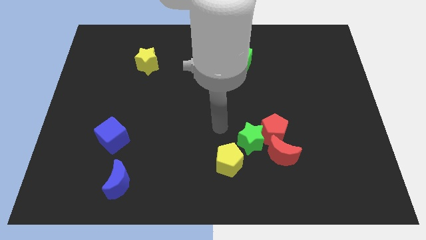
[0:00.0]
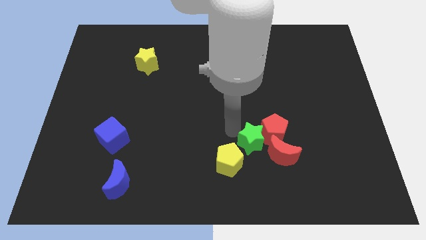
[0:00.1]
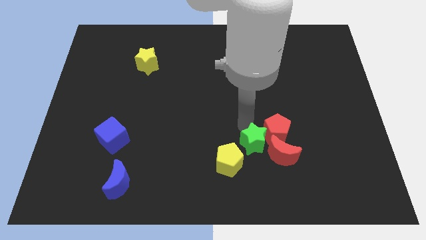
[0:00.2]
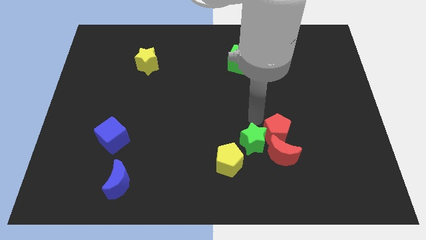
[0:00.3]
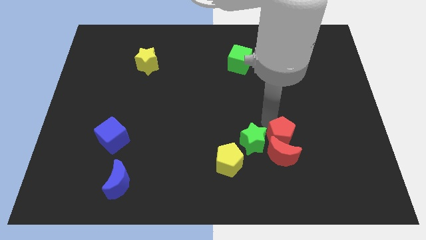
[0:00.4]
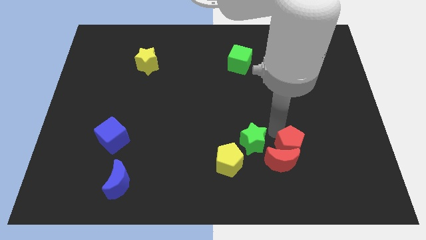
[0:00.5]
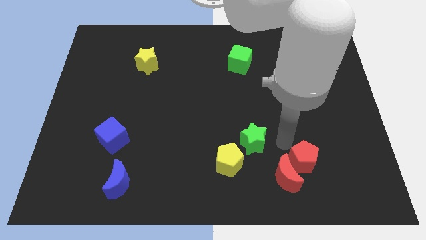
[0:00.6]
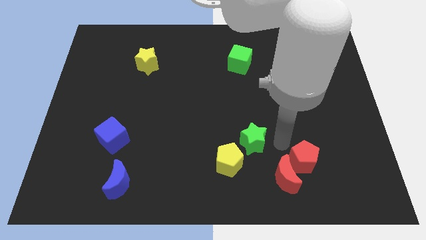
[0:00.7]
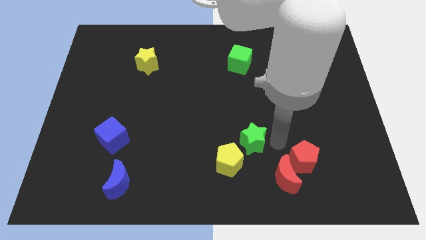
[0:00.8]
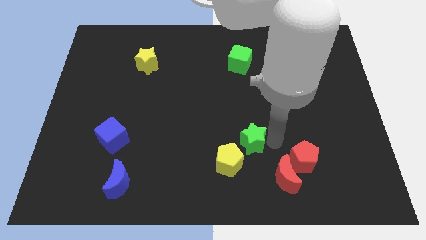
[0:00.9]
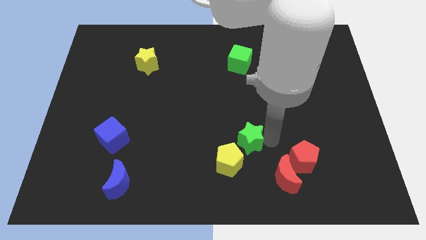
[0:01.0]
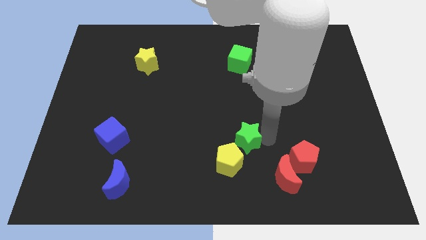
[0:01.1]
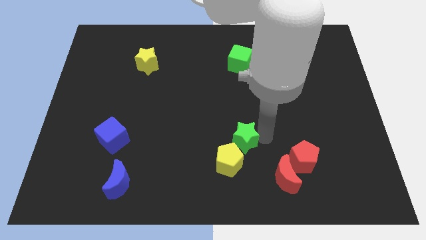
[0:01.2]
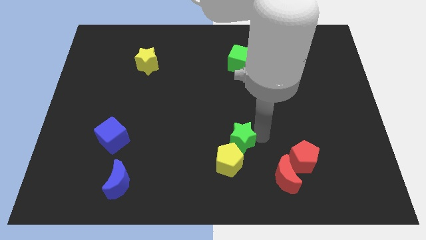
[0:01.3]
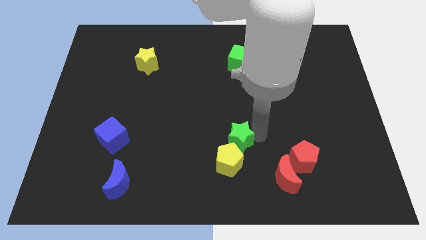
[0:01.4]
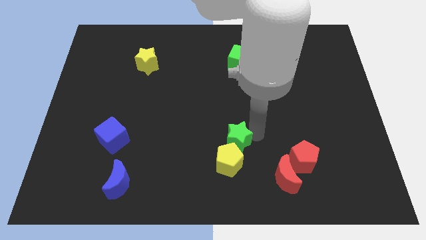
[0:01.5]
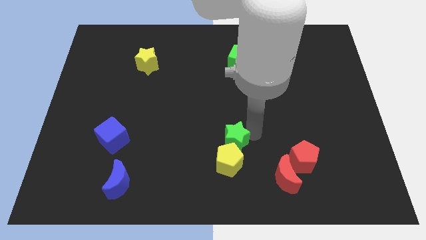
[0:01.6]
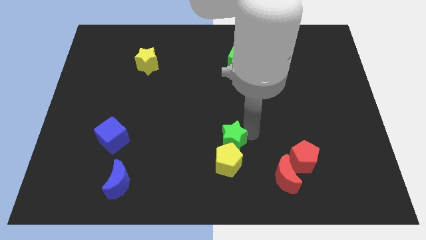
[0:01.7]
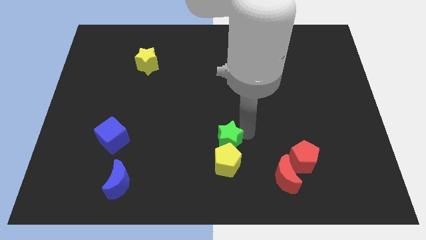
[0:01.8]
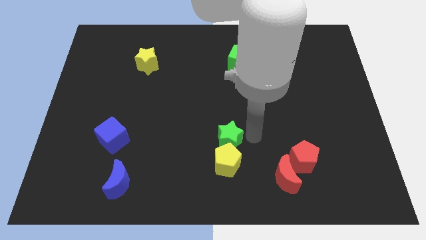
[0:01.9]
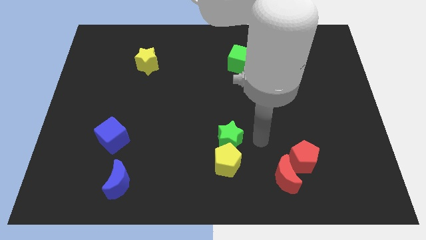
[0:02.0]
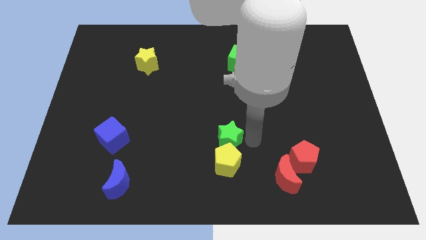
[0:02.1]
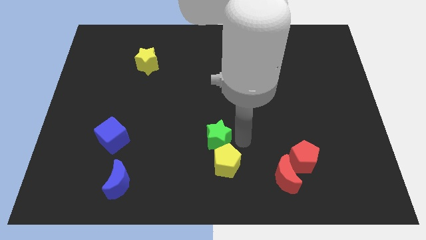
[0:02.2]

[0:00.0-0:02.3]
slightly slide the green star left

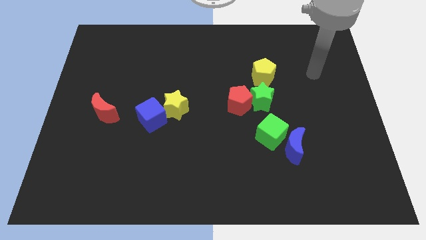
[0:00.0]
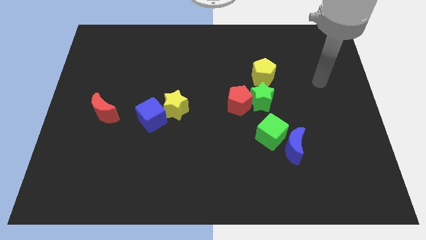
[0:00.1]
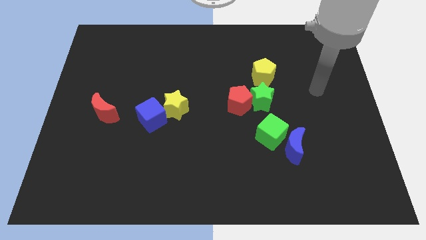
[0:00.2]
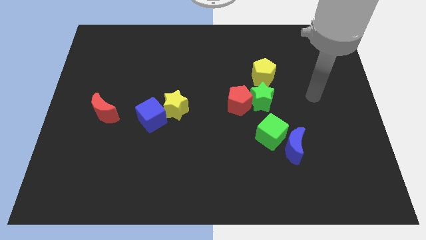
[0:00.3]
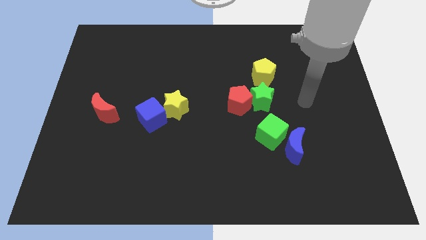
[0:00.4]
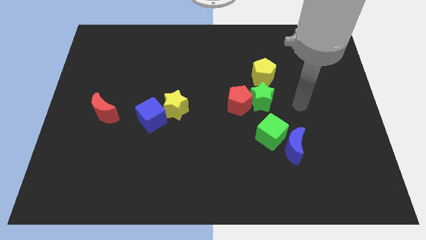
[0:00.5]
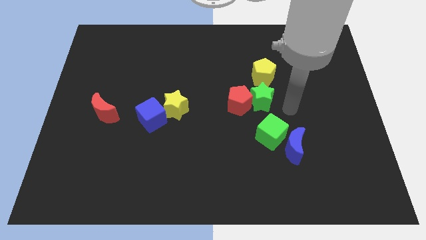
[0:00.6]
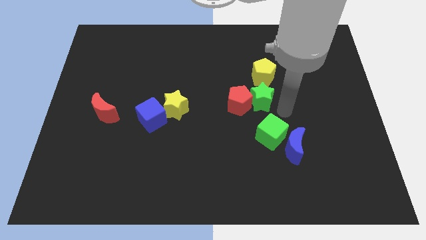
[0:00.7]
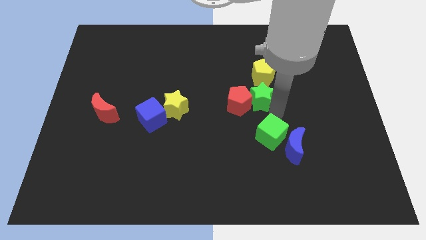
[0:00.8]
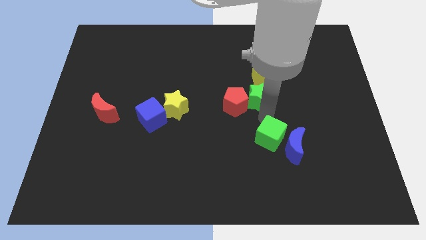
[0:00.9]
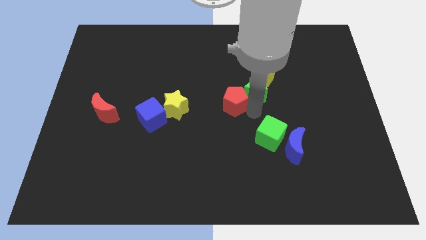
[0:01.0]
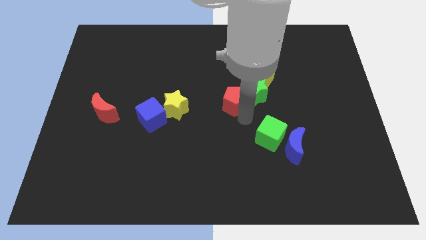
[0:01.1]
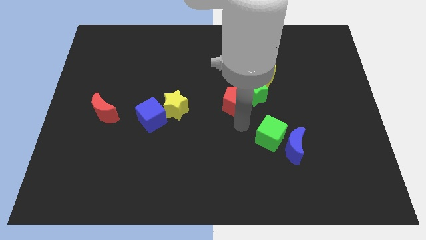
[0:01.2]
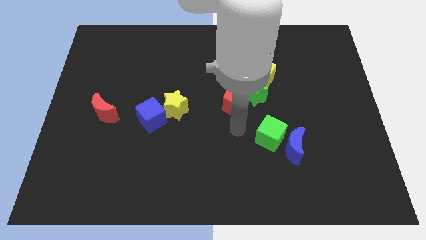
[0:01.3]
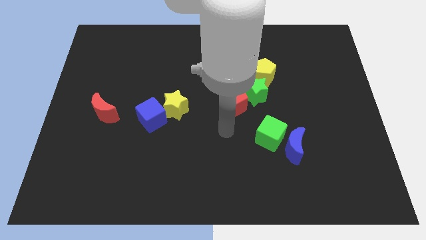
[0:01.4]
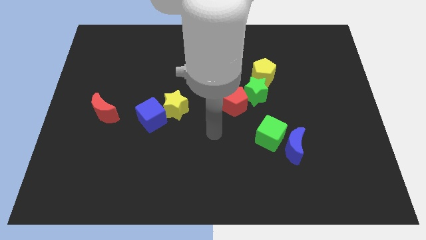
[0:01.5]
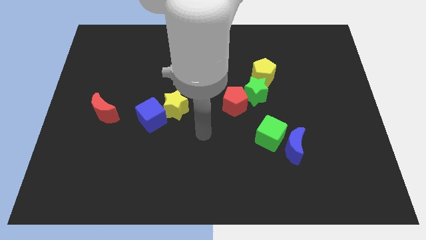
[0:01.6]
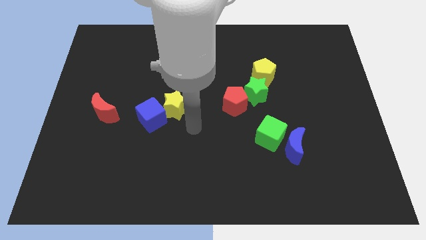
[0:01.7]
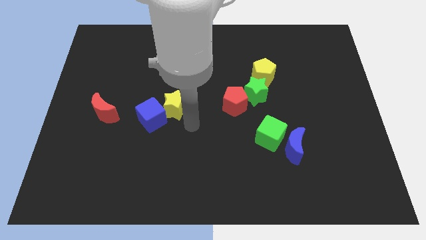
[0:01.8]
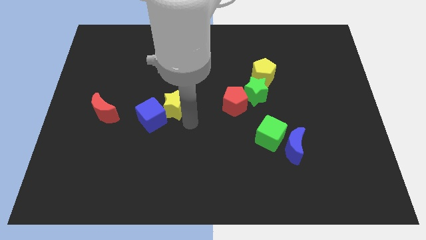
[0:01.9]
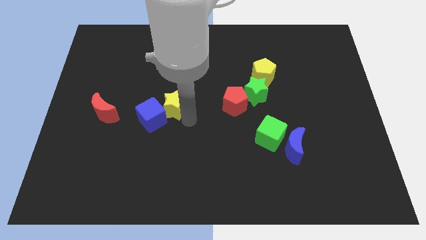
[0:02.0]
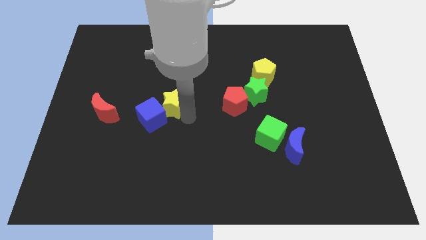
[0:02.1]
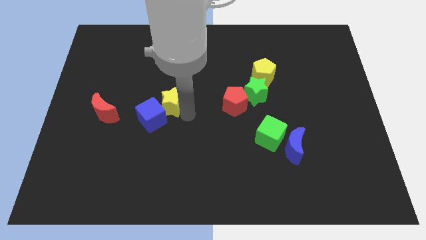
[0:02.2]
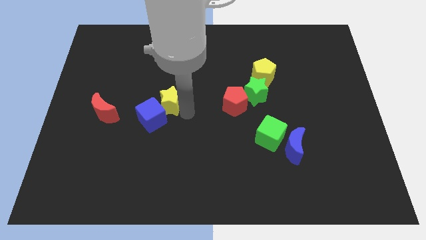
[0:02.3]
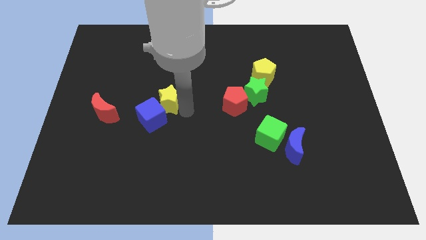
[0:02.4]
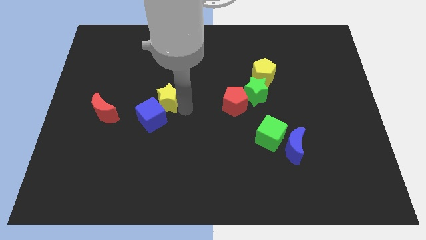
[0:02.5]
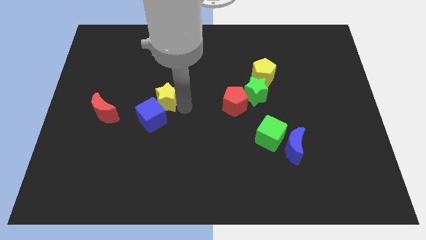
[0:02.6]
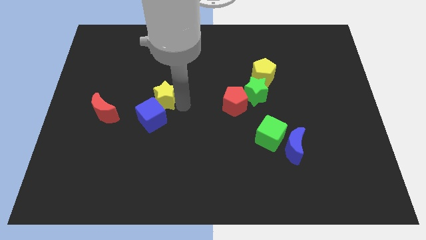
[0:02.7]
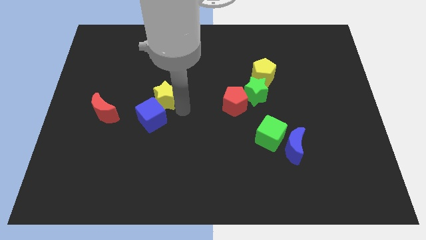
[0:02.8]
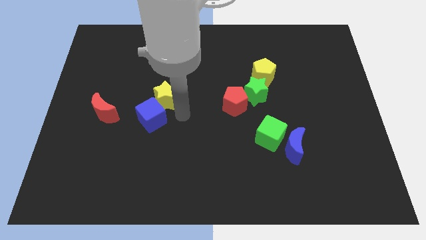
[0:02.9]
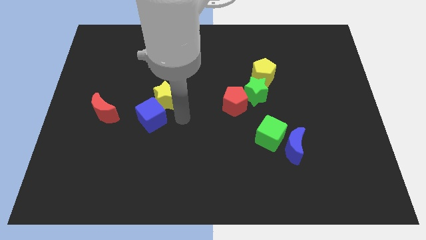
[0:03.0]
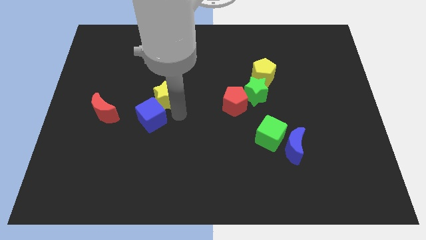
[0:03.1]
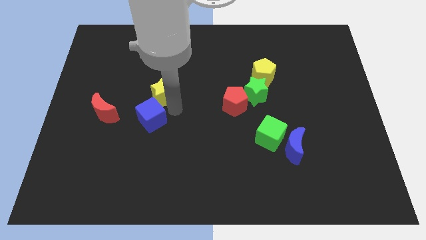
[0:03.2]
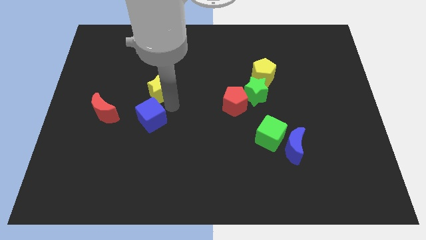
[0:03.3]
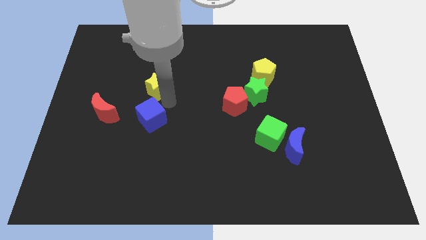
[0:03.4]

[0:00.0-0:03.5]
push the yellow star somewhat diagonally up and left

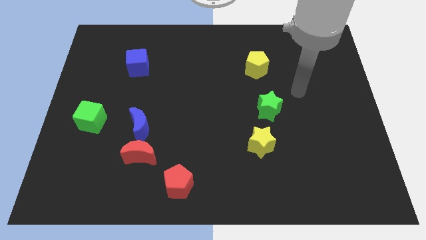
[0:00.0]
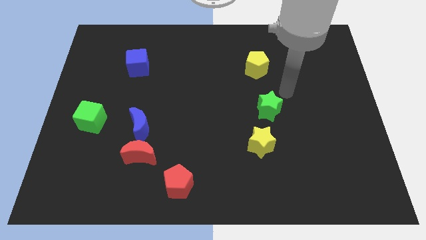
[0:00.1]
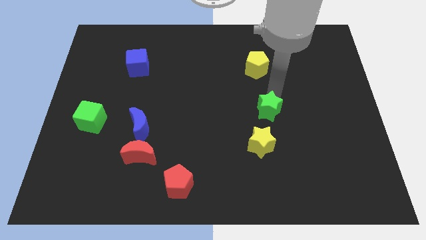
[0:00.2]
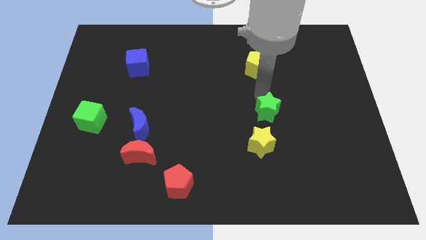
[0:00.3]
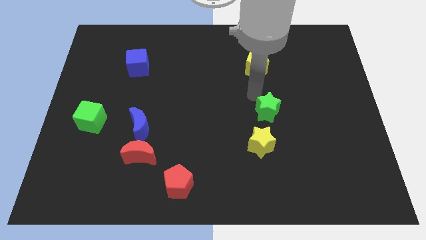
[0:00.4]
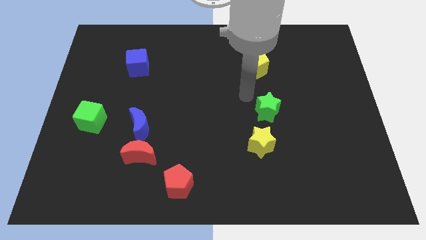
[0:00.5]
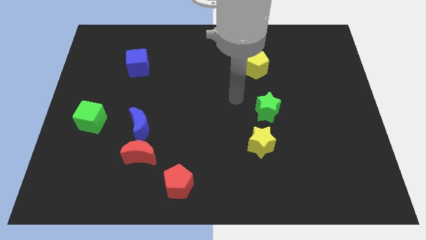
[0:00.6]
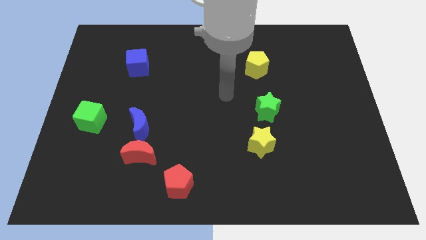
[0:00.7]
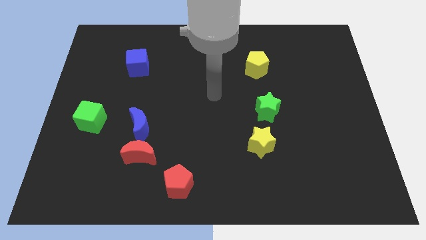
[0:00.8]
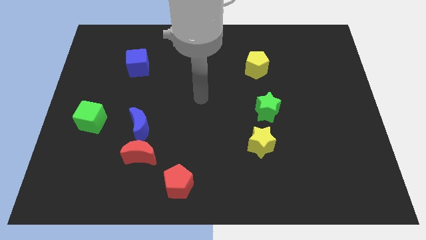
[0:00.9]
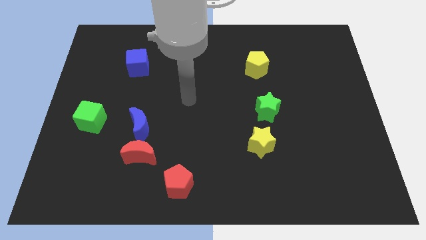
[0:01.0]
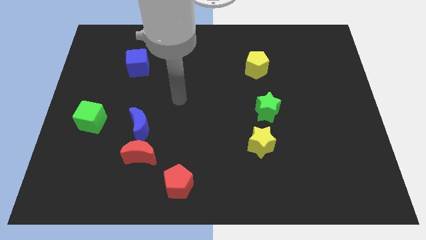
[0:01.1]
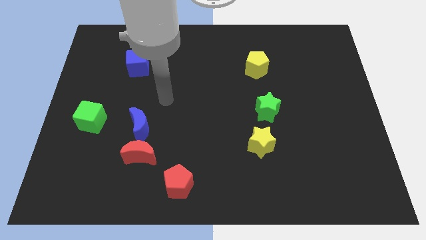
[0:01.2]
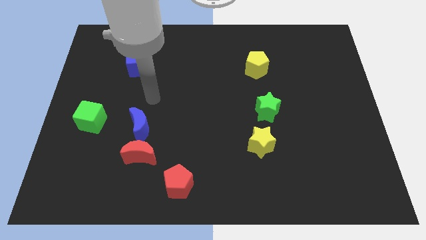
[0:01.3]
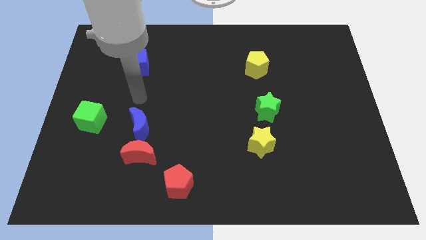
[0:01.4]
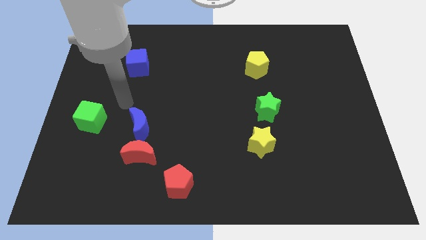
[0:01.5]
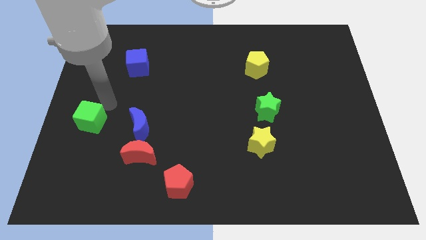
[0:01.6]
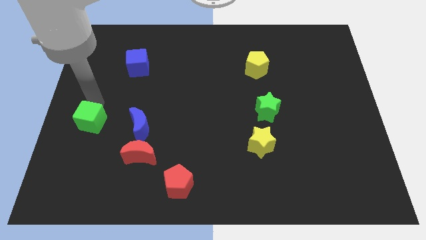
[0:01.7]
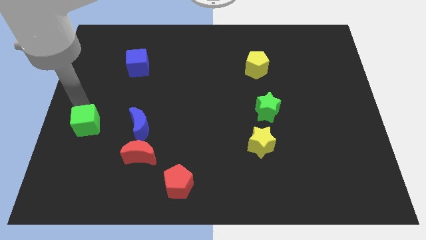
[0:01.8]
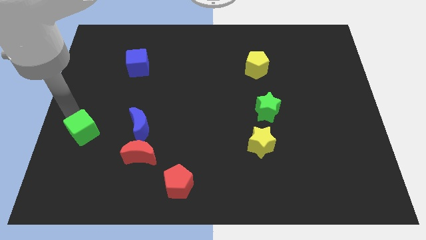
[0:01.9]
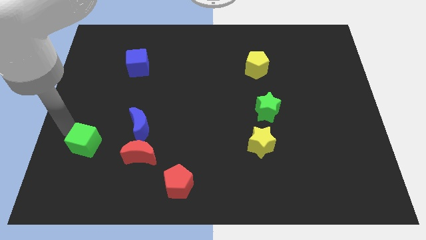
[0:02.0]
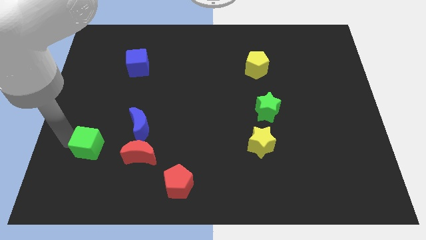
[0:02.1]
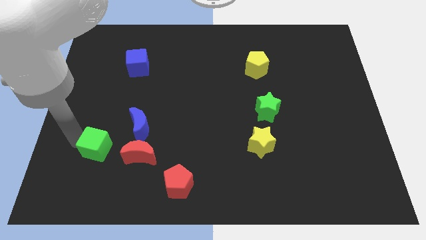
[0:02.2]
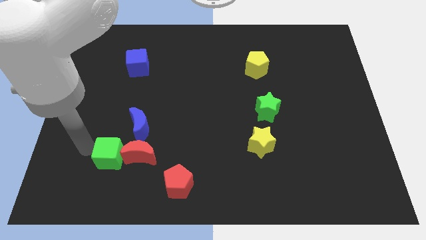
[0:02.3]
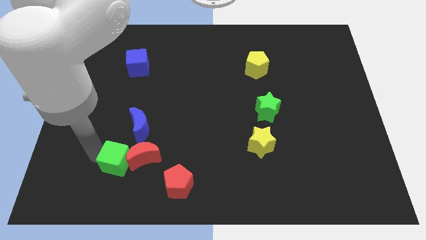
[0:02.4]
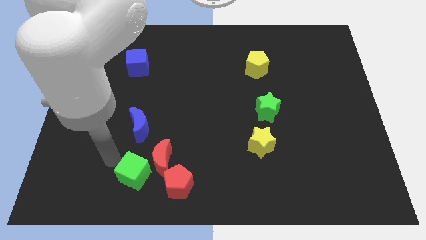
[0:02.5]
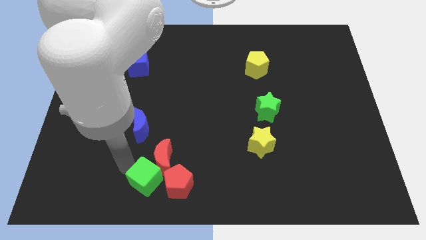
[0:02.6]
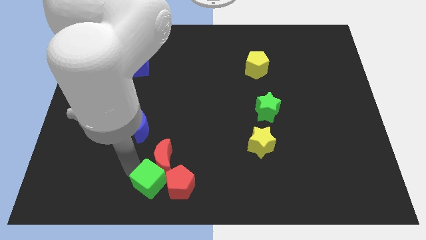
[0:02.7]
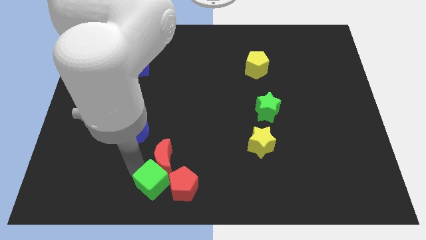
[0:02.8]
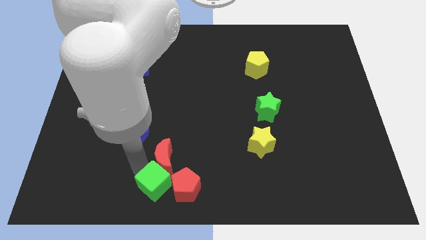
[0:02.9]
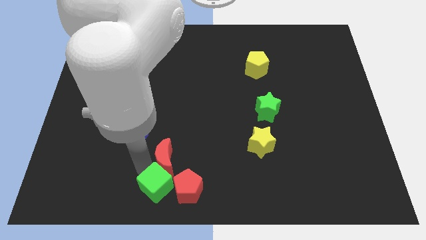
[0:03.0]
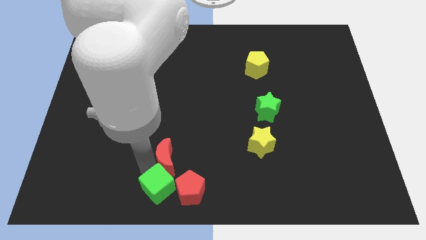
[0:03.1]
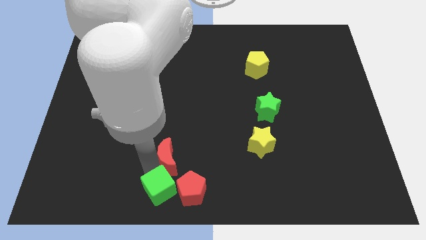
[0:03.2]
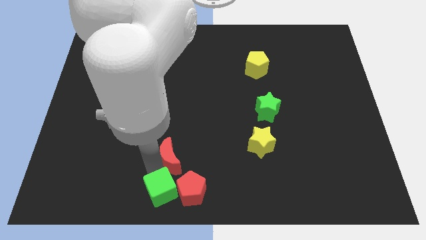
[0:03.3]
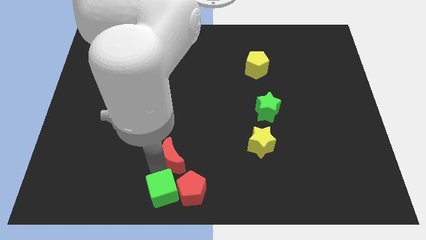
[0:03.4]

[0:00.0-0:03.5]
move the red moon to the right somewhat
